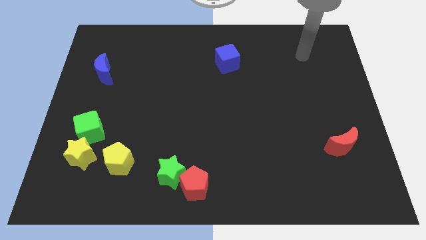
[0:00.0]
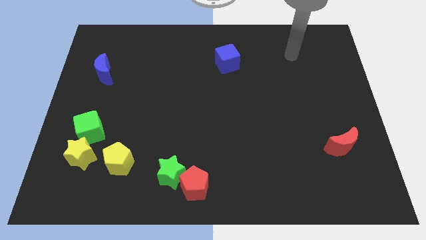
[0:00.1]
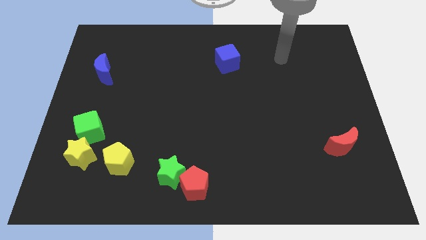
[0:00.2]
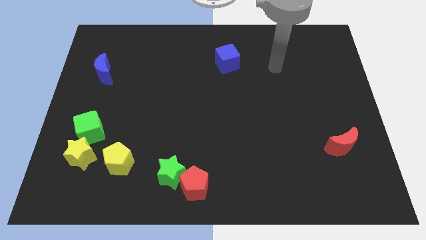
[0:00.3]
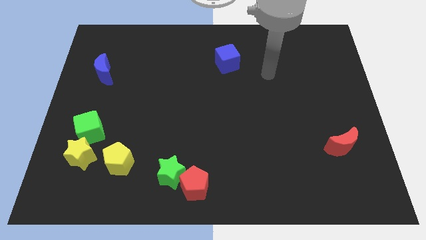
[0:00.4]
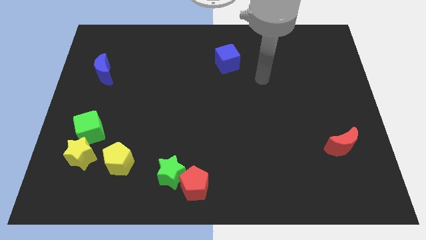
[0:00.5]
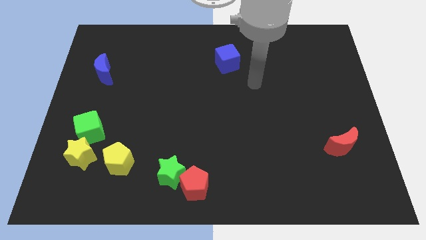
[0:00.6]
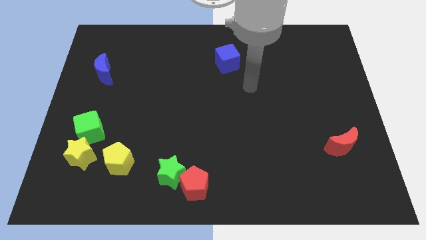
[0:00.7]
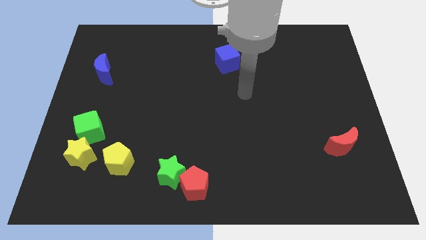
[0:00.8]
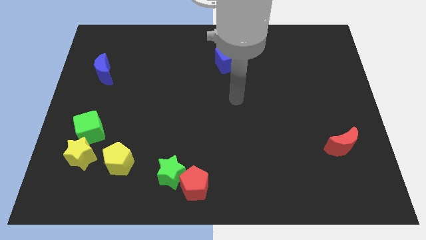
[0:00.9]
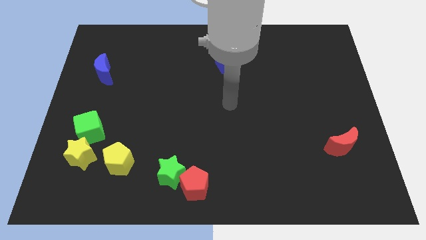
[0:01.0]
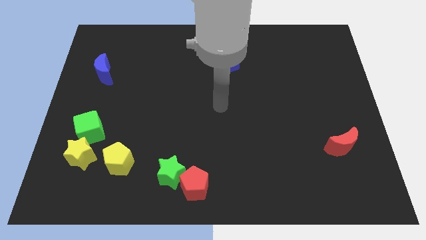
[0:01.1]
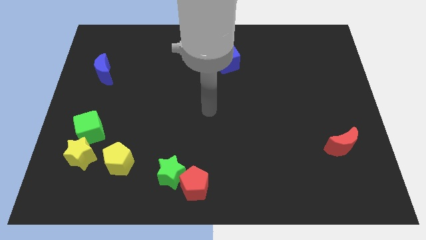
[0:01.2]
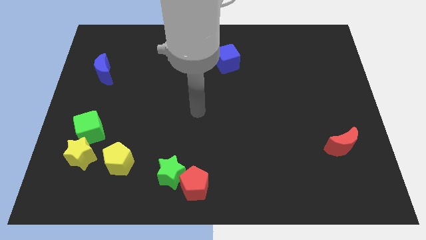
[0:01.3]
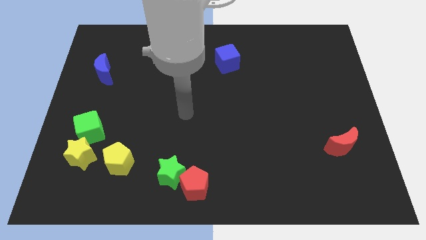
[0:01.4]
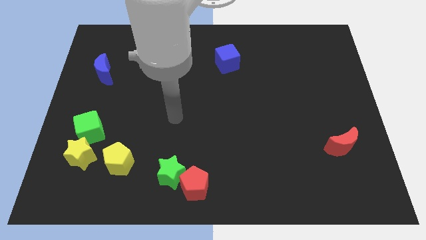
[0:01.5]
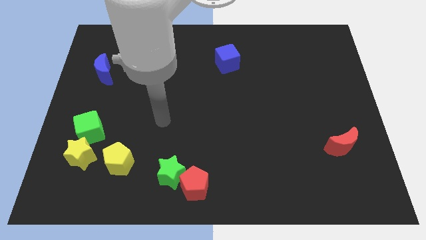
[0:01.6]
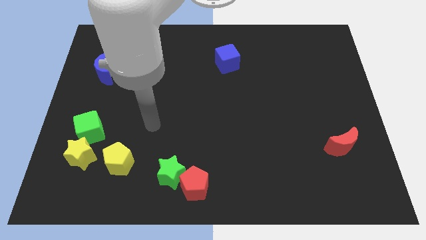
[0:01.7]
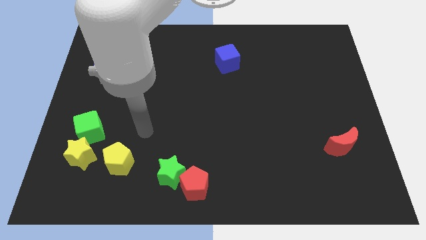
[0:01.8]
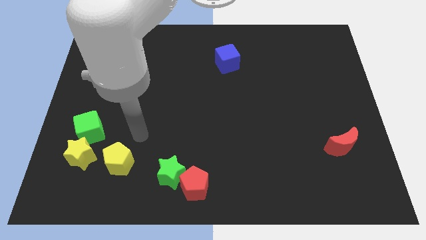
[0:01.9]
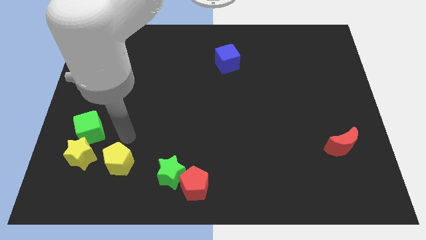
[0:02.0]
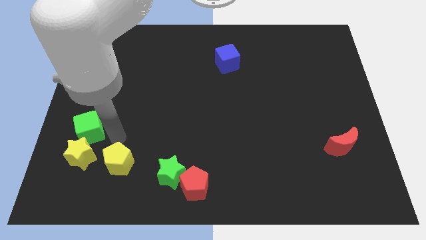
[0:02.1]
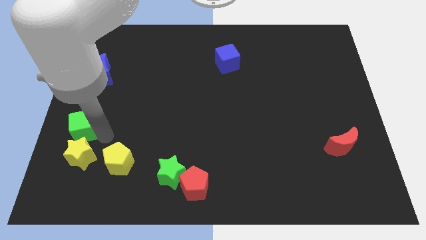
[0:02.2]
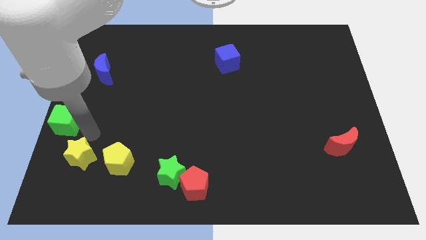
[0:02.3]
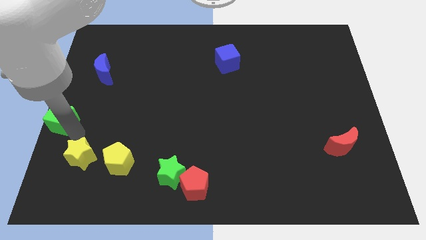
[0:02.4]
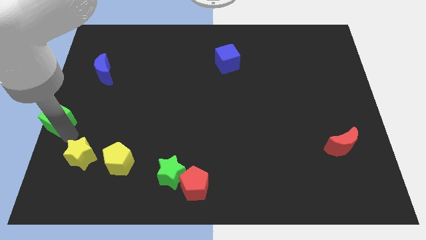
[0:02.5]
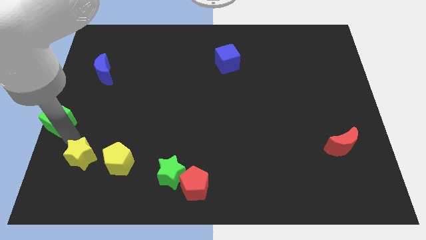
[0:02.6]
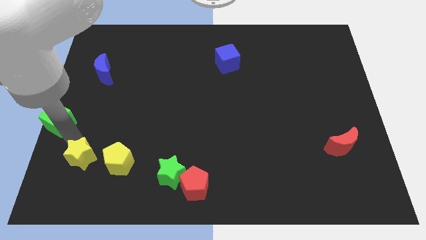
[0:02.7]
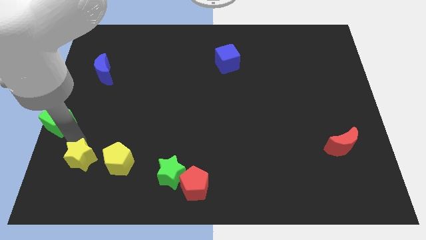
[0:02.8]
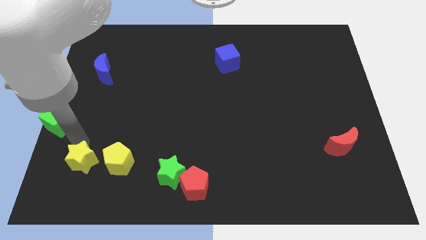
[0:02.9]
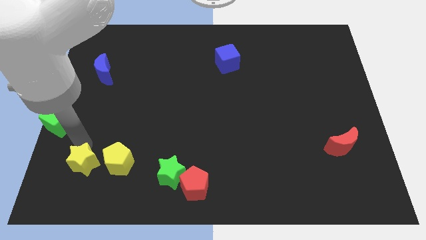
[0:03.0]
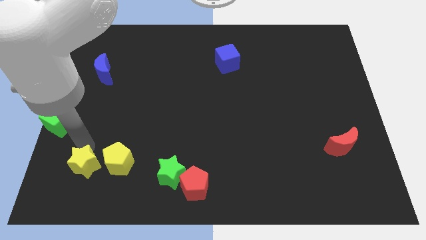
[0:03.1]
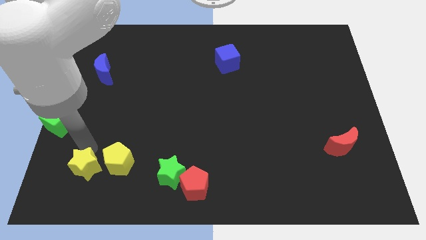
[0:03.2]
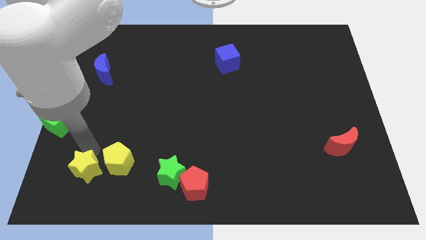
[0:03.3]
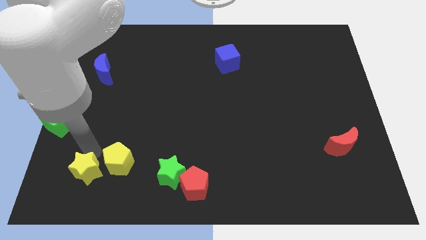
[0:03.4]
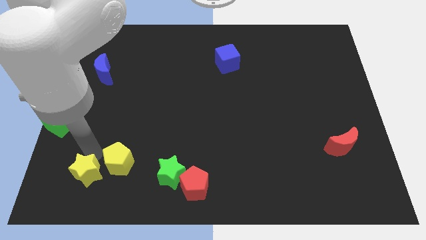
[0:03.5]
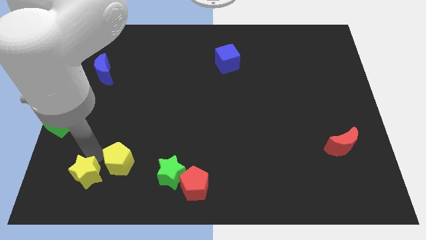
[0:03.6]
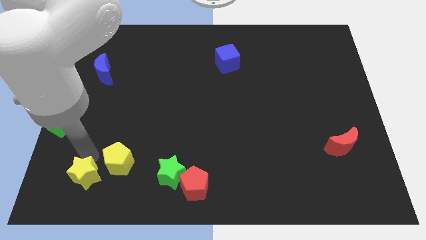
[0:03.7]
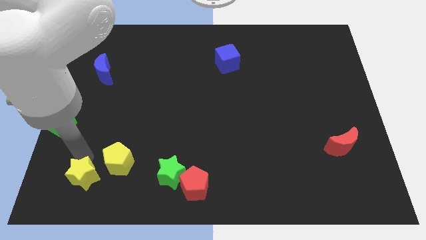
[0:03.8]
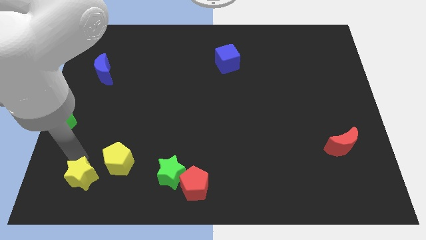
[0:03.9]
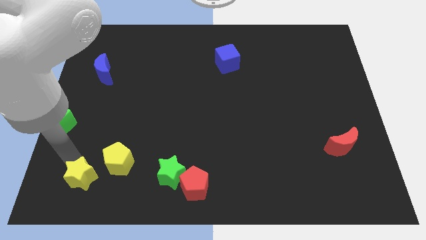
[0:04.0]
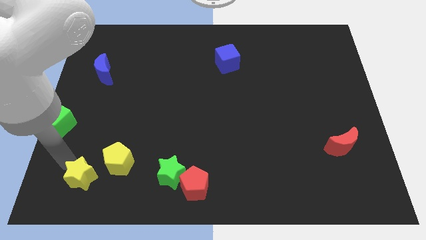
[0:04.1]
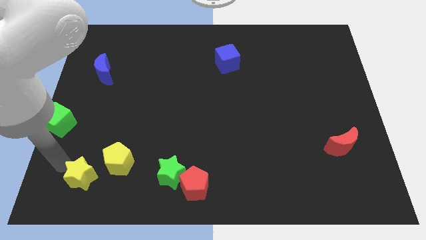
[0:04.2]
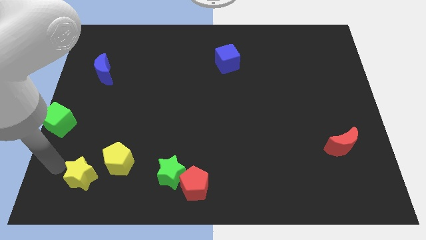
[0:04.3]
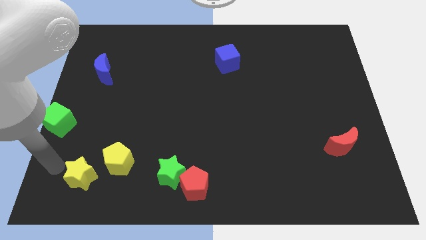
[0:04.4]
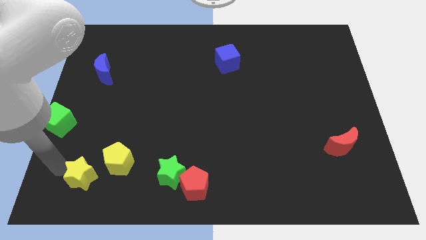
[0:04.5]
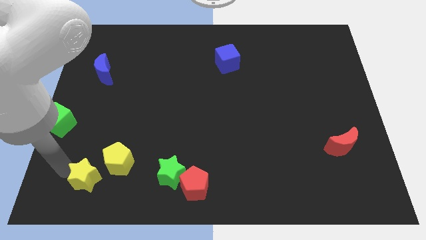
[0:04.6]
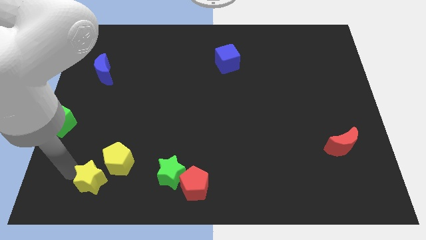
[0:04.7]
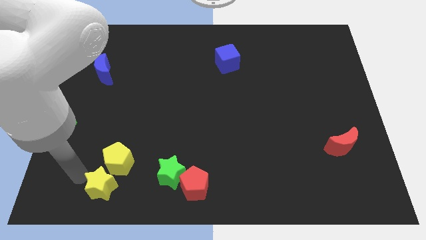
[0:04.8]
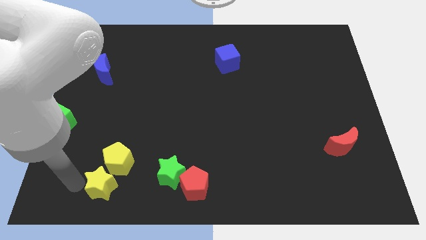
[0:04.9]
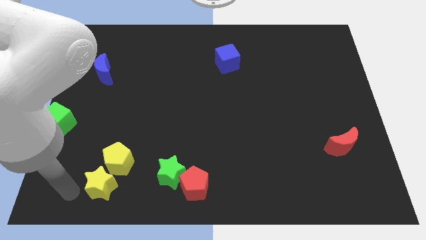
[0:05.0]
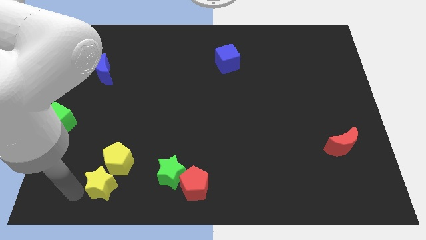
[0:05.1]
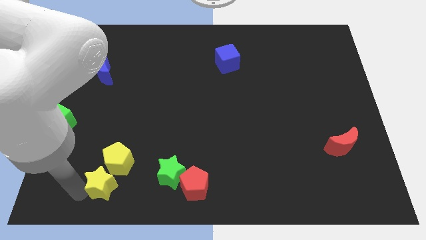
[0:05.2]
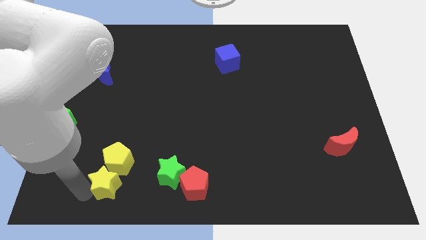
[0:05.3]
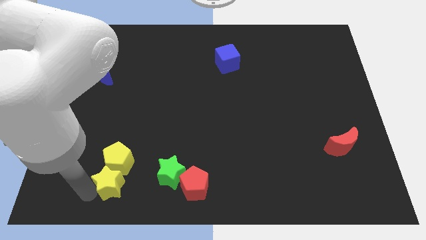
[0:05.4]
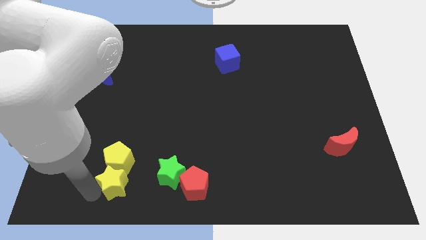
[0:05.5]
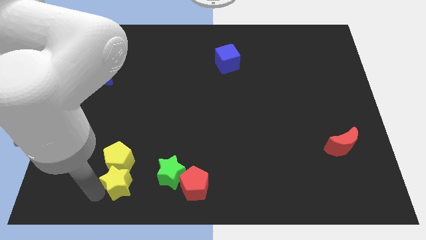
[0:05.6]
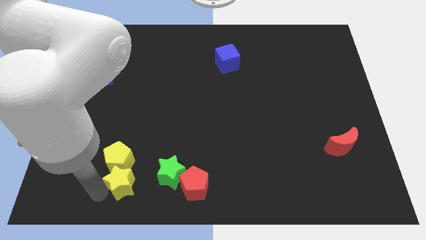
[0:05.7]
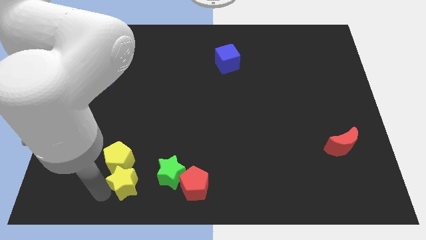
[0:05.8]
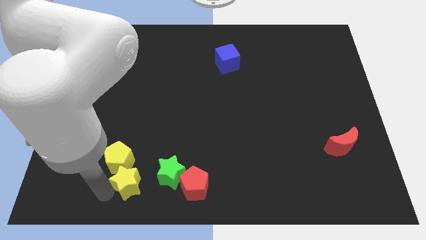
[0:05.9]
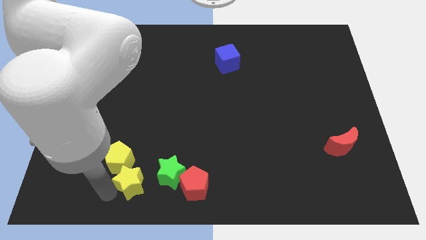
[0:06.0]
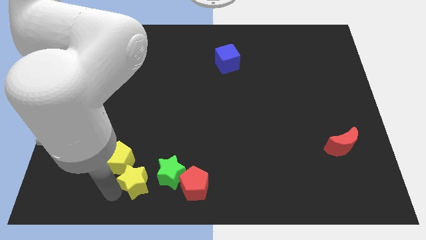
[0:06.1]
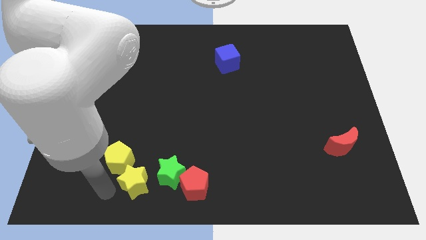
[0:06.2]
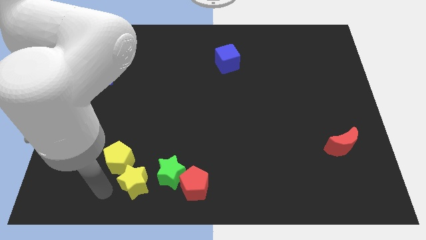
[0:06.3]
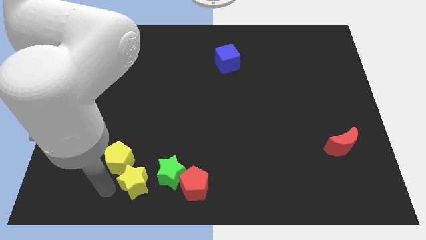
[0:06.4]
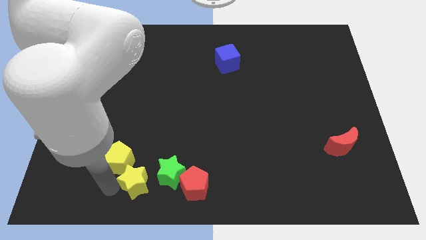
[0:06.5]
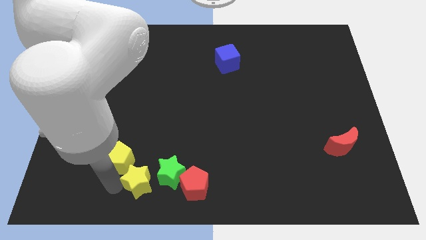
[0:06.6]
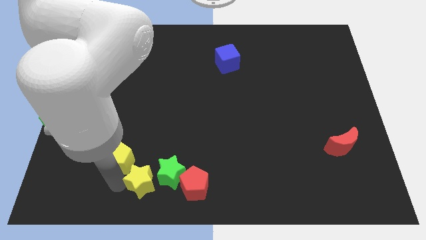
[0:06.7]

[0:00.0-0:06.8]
slide the yellow star towards the green star

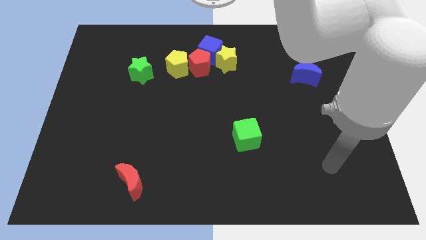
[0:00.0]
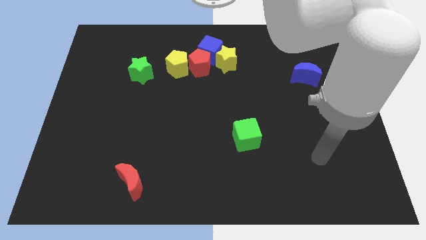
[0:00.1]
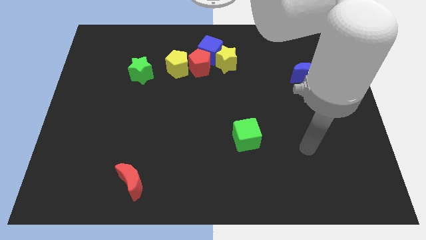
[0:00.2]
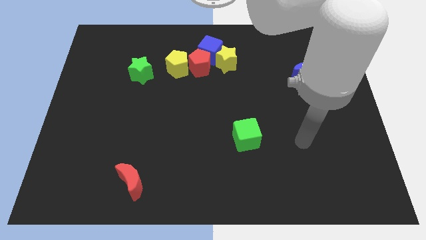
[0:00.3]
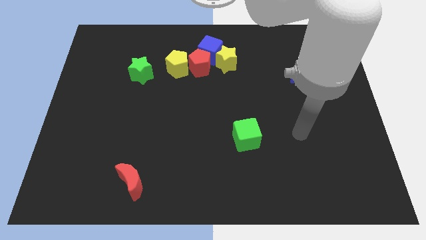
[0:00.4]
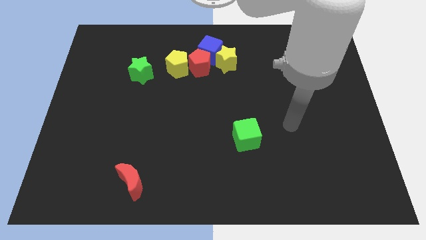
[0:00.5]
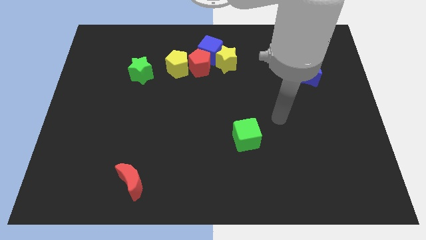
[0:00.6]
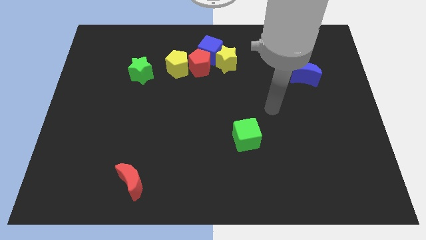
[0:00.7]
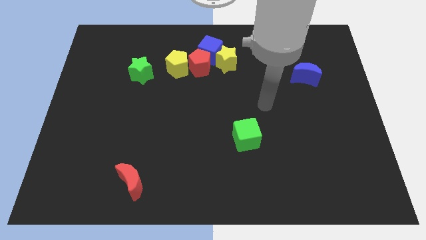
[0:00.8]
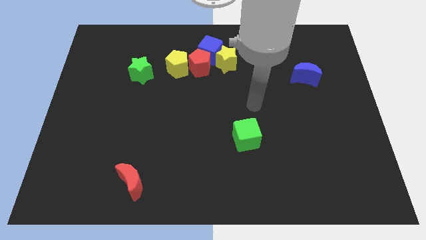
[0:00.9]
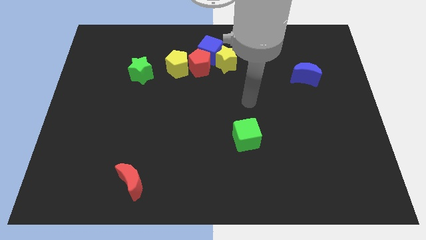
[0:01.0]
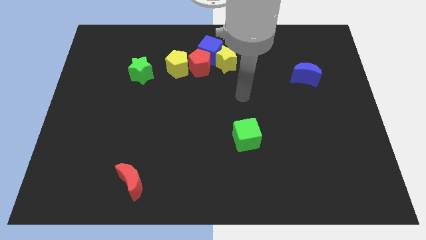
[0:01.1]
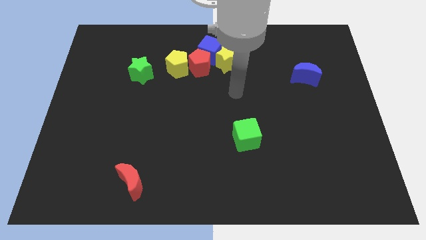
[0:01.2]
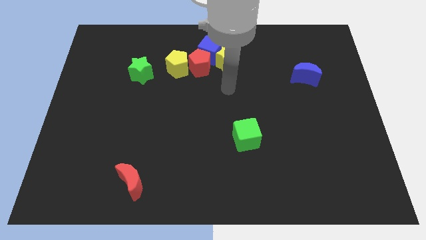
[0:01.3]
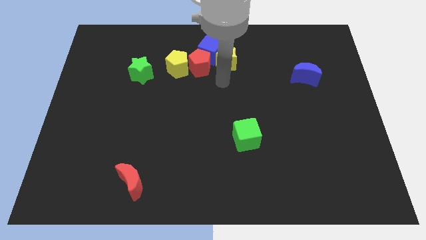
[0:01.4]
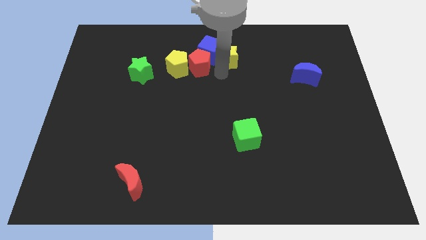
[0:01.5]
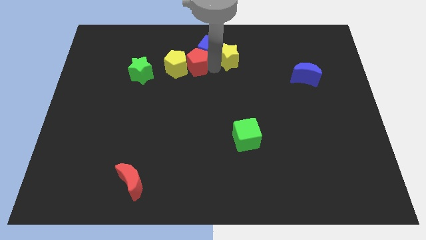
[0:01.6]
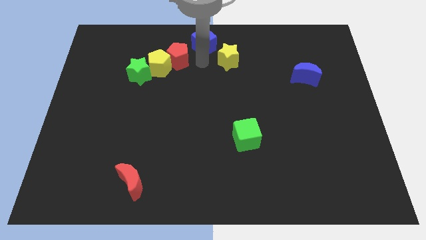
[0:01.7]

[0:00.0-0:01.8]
move the yellow pentagon towards the green star
